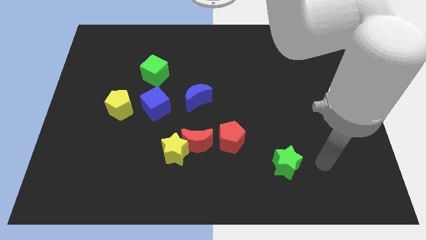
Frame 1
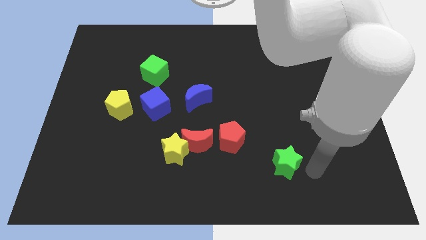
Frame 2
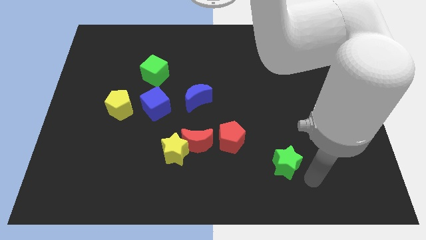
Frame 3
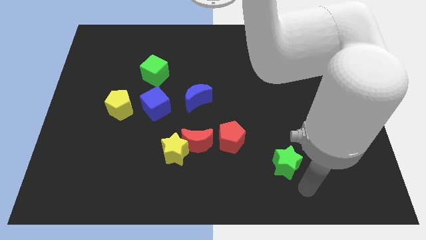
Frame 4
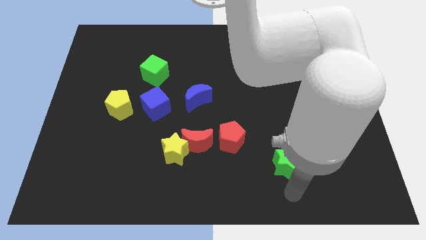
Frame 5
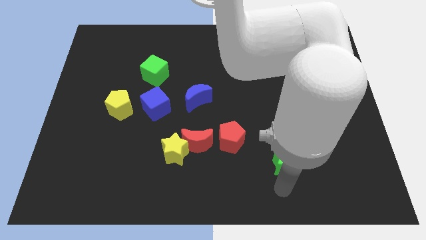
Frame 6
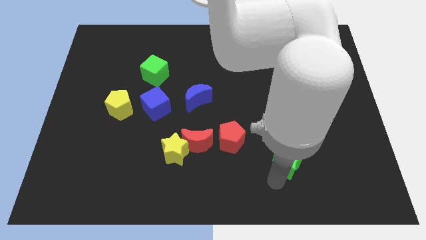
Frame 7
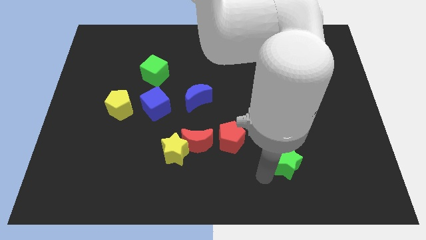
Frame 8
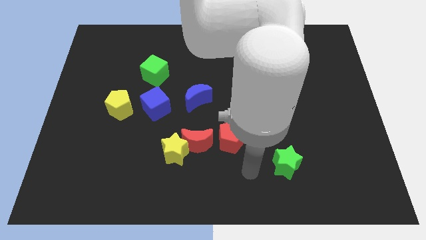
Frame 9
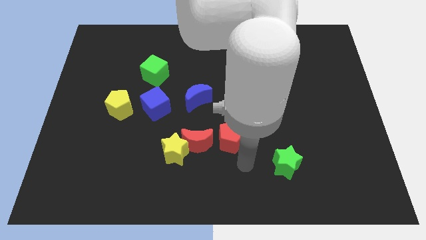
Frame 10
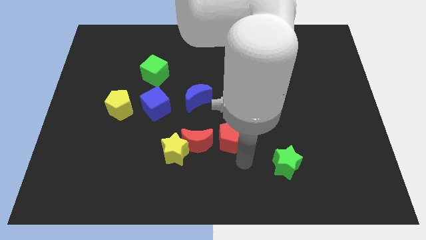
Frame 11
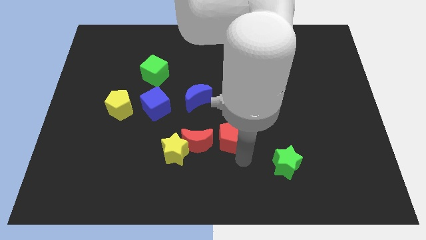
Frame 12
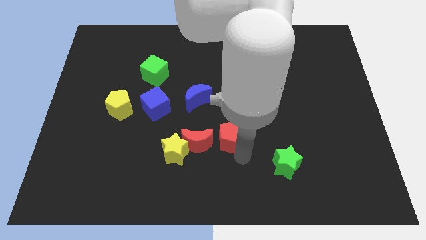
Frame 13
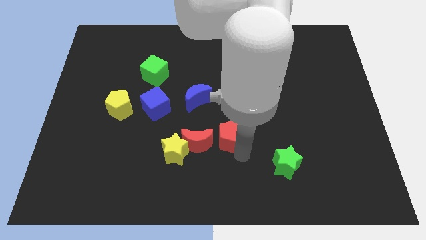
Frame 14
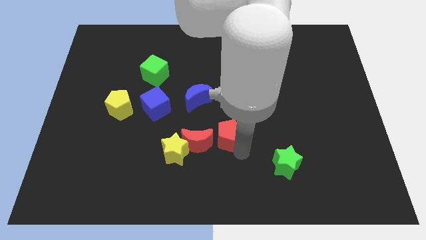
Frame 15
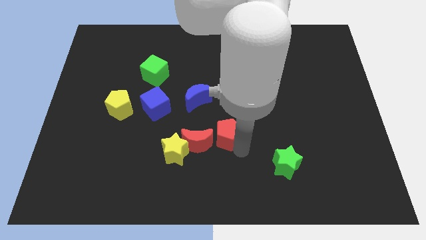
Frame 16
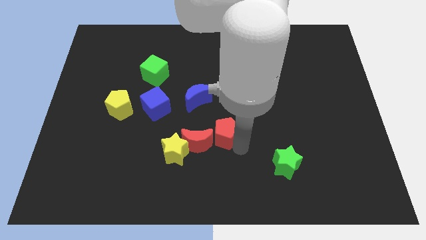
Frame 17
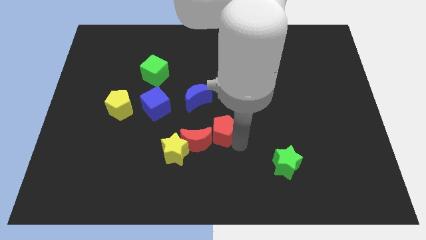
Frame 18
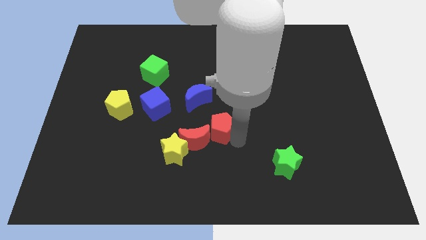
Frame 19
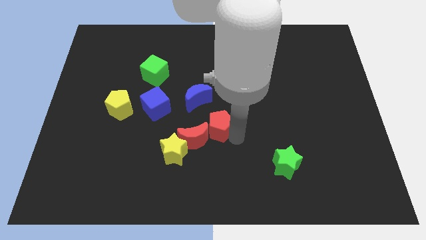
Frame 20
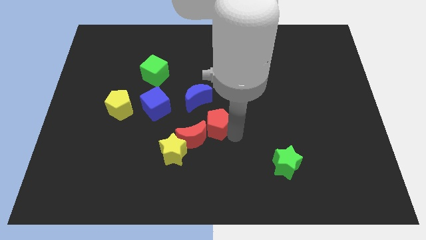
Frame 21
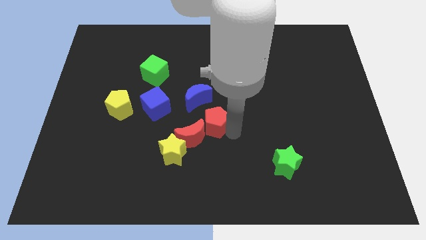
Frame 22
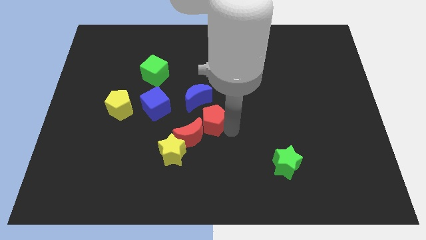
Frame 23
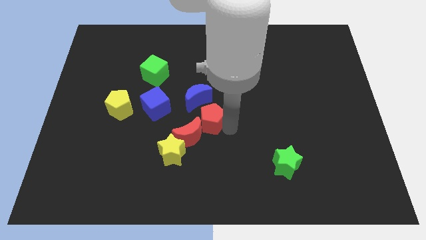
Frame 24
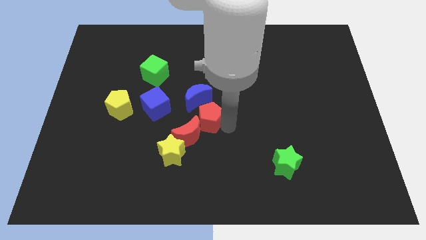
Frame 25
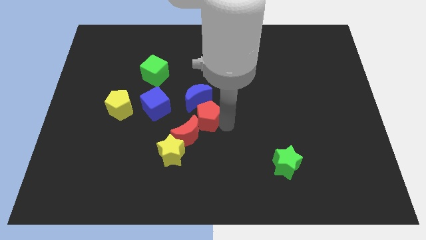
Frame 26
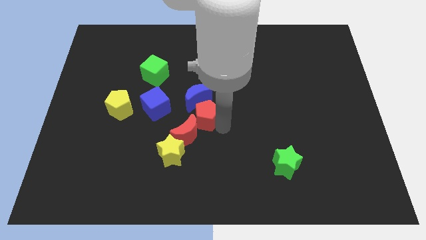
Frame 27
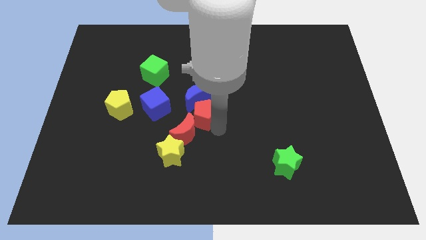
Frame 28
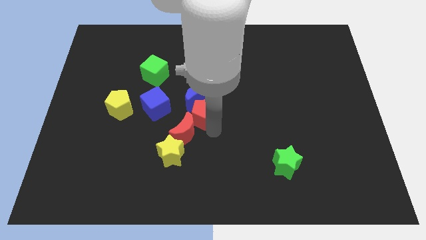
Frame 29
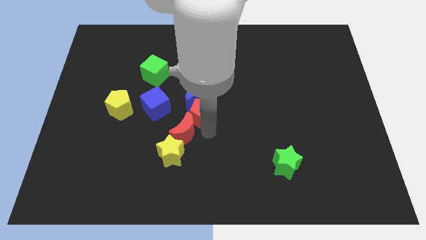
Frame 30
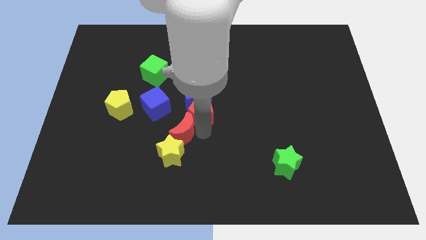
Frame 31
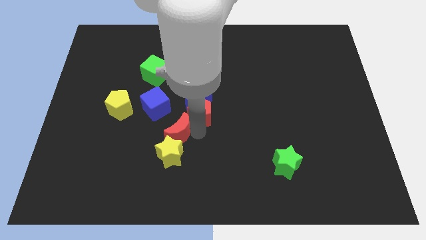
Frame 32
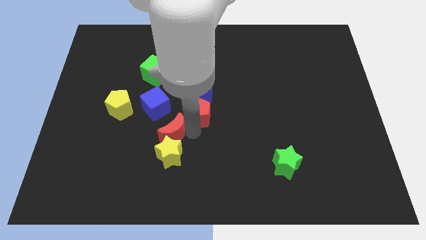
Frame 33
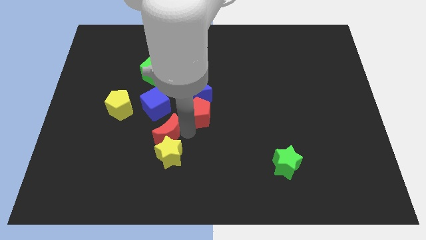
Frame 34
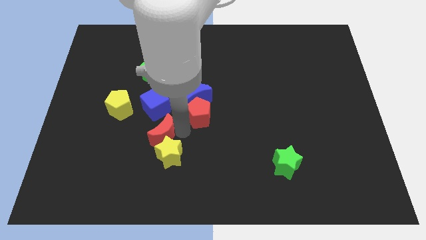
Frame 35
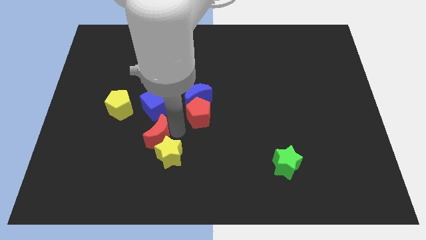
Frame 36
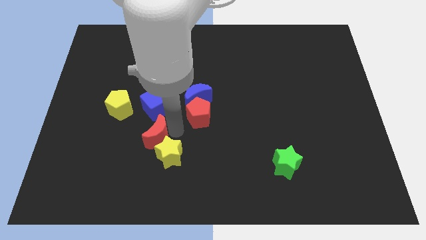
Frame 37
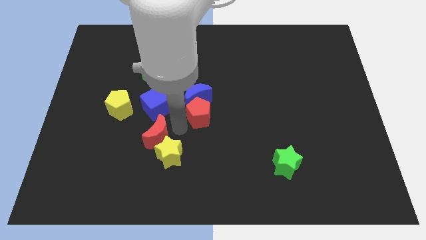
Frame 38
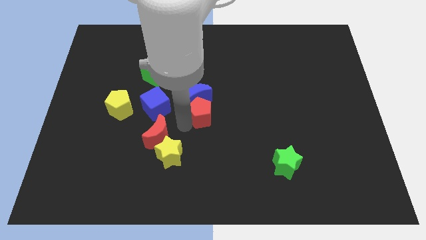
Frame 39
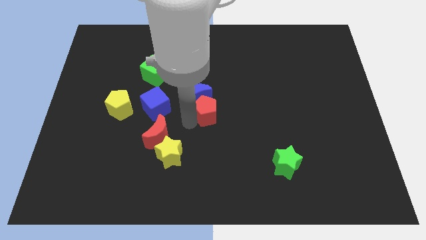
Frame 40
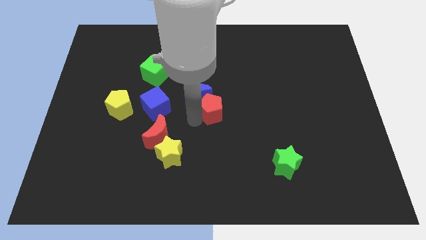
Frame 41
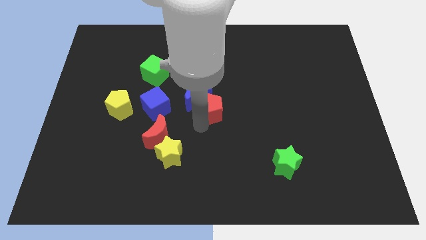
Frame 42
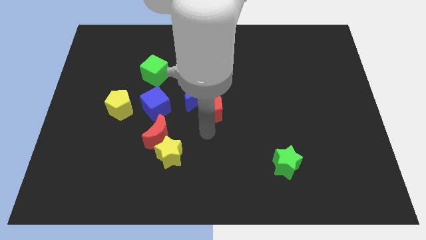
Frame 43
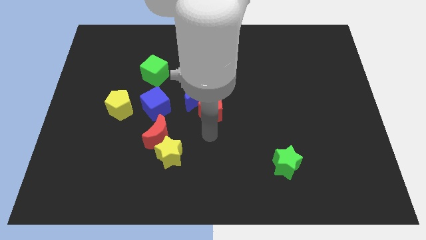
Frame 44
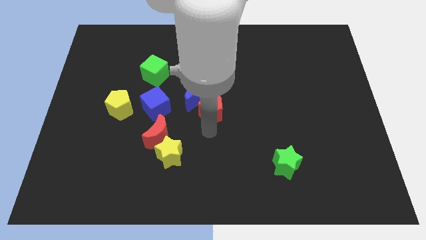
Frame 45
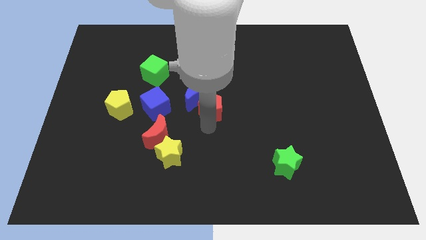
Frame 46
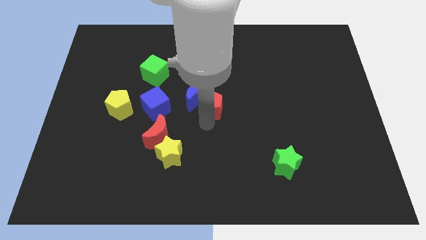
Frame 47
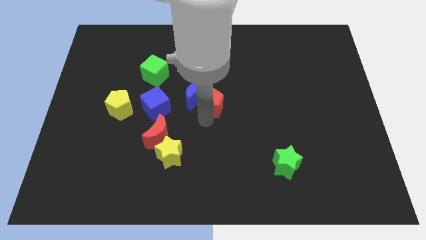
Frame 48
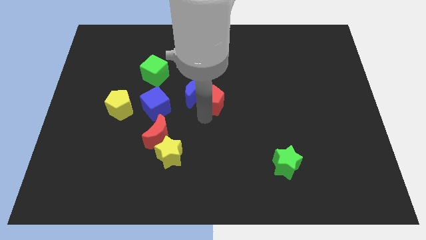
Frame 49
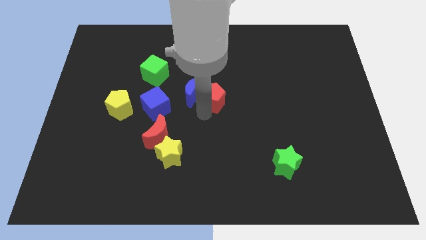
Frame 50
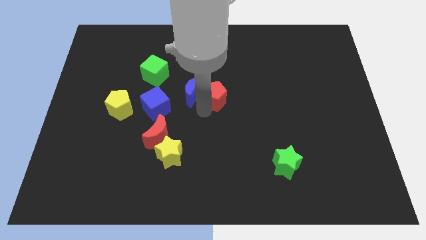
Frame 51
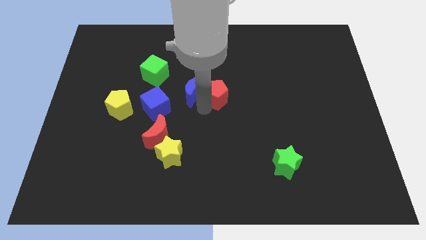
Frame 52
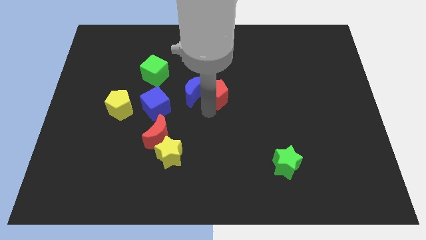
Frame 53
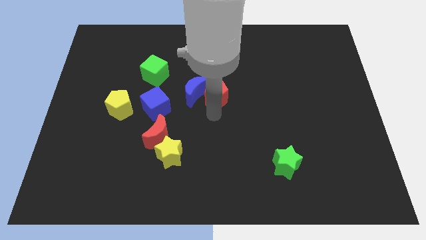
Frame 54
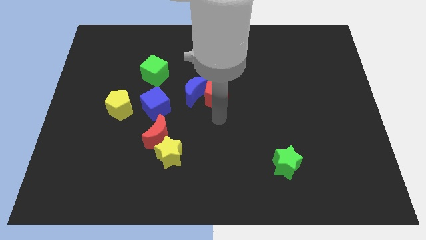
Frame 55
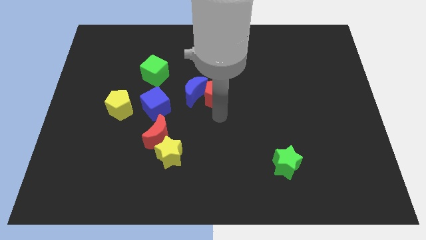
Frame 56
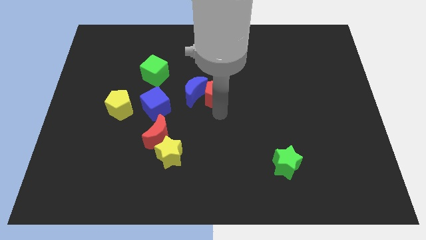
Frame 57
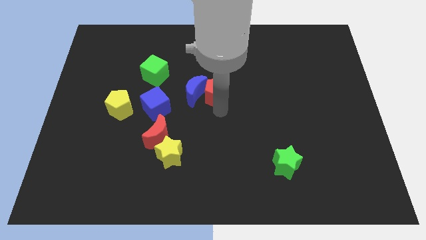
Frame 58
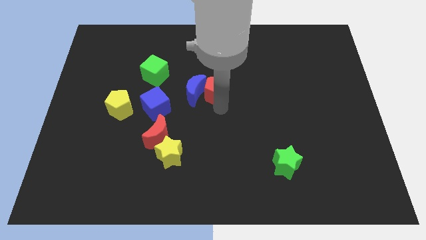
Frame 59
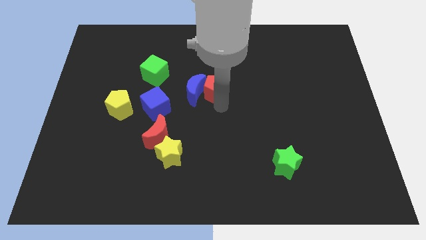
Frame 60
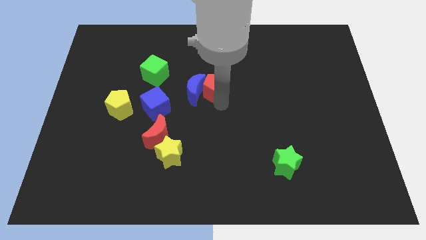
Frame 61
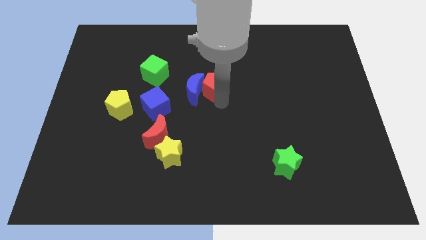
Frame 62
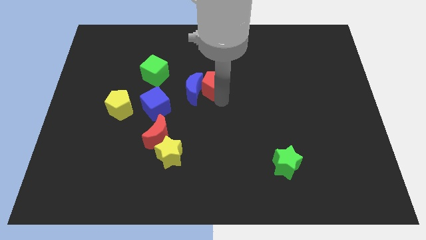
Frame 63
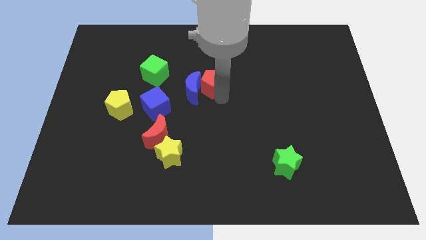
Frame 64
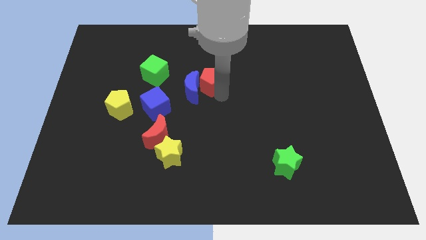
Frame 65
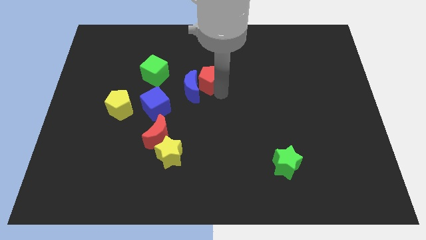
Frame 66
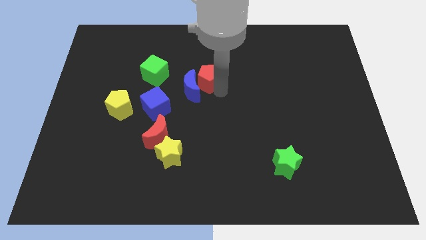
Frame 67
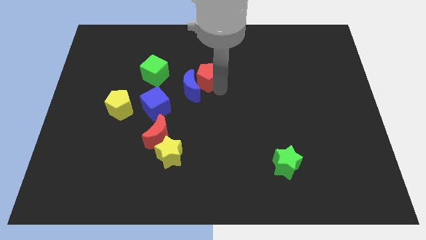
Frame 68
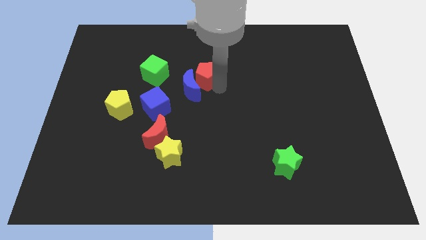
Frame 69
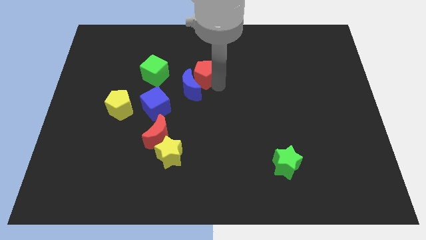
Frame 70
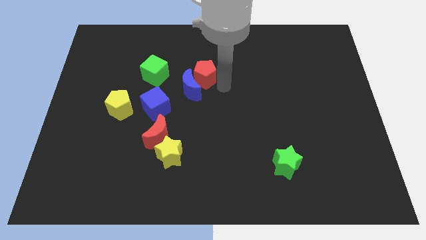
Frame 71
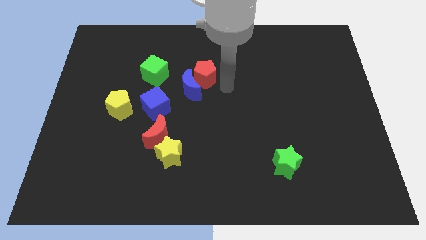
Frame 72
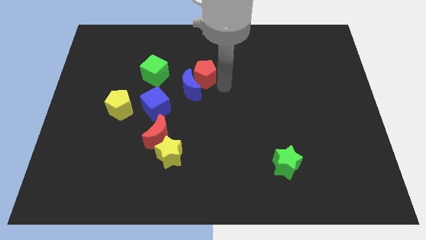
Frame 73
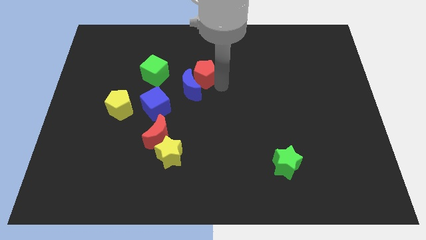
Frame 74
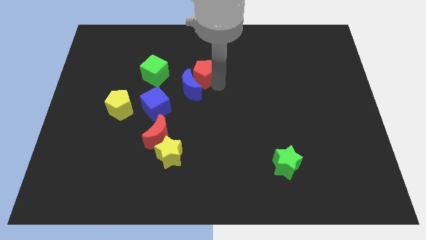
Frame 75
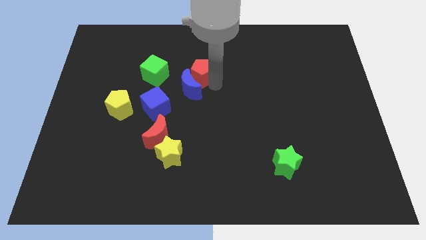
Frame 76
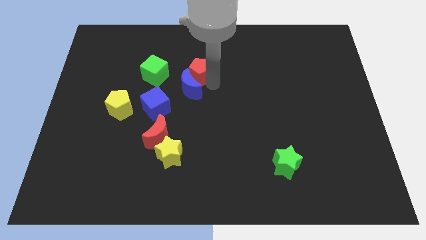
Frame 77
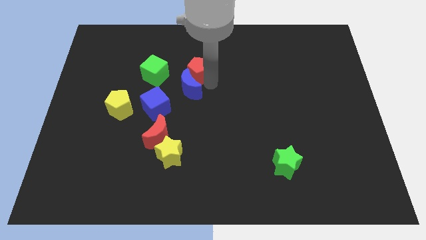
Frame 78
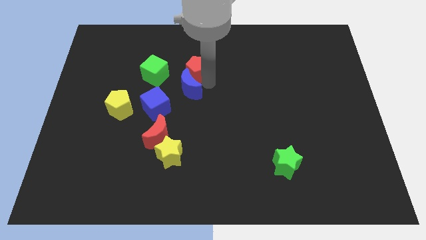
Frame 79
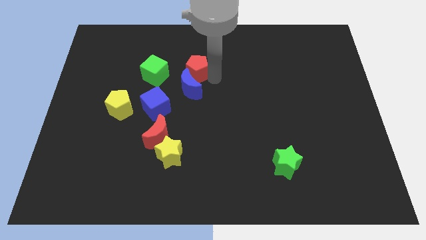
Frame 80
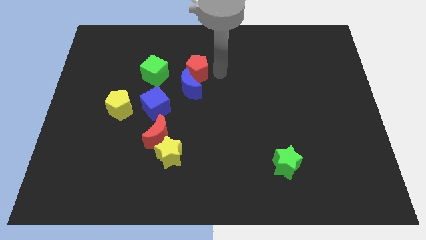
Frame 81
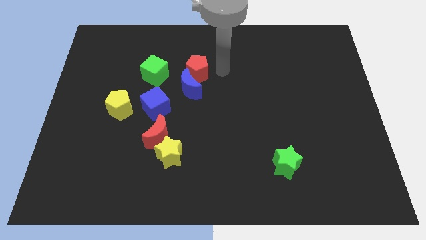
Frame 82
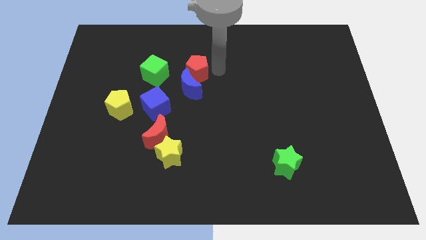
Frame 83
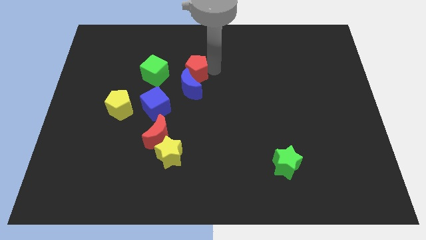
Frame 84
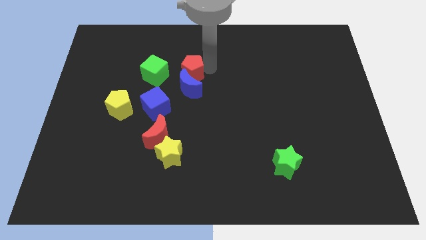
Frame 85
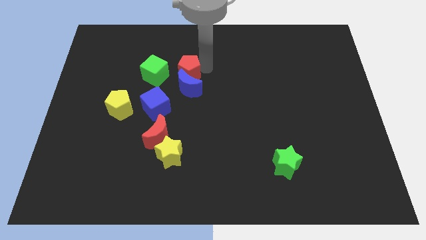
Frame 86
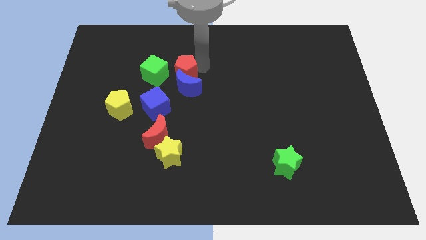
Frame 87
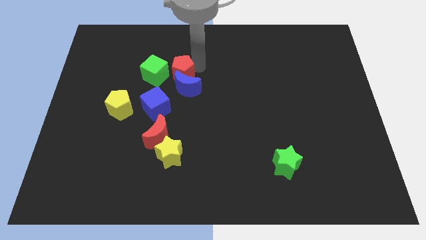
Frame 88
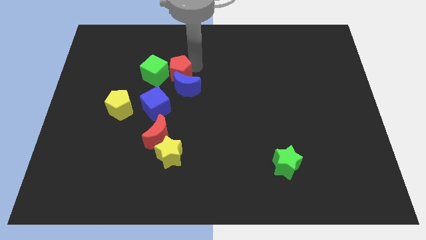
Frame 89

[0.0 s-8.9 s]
move the red pentagon to the green cube
